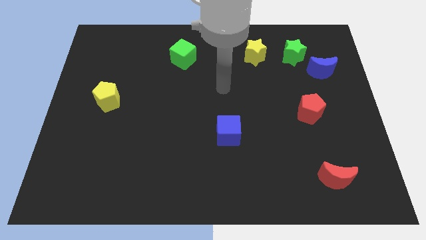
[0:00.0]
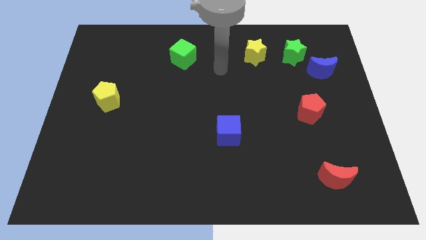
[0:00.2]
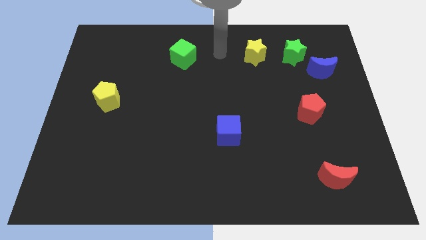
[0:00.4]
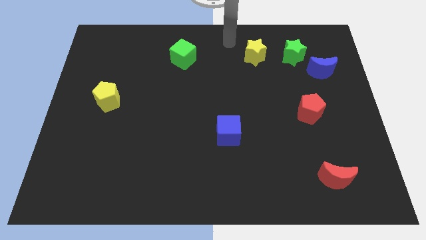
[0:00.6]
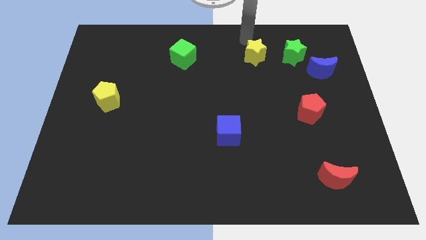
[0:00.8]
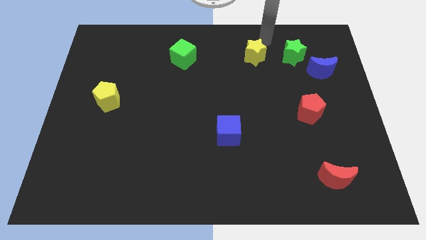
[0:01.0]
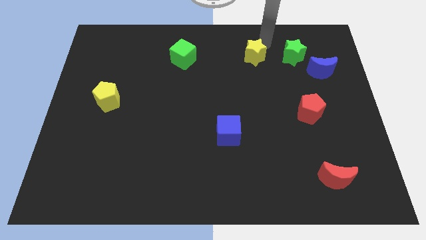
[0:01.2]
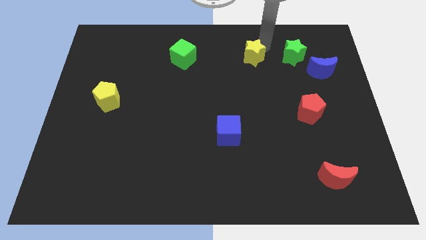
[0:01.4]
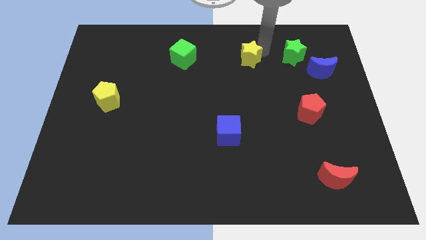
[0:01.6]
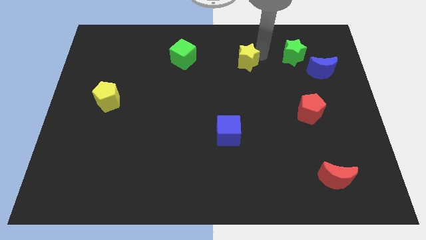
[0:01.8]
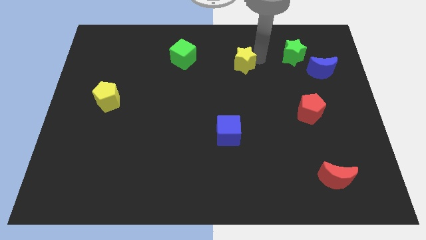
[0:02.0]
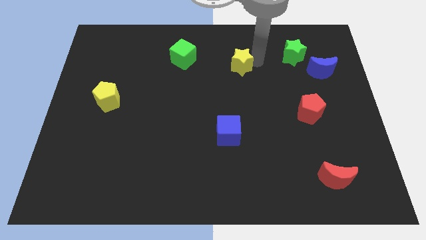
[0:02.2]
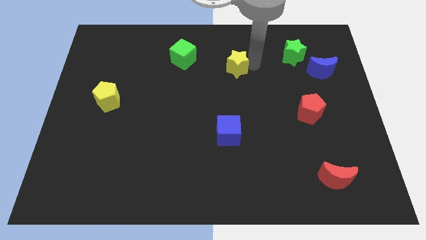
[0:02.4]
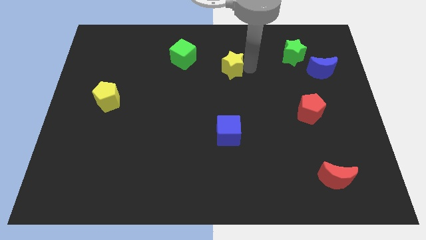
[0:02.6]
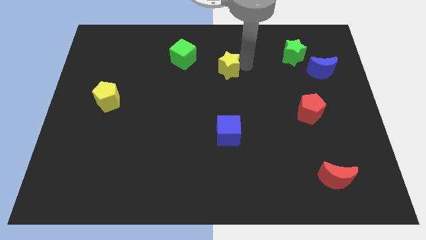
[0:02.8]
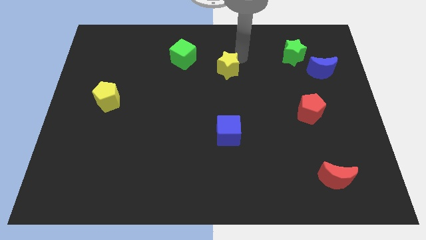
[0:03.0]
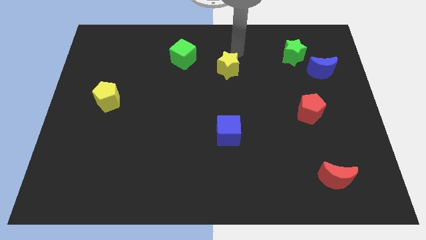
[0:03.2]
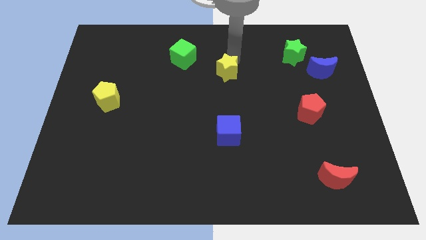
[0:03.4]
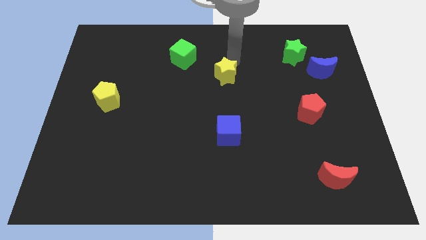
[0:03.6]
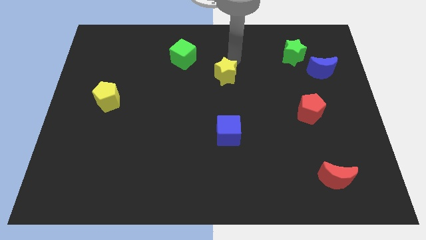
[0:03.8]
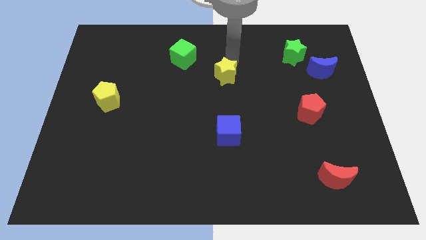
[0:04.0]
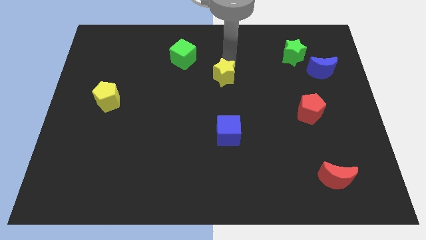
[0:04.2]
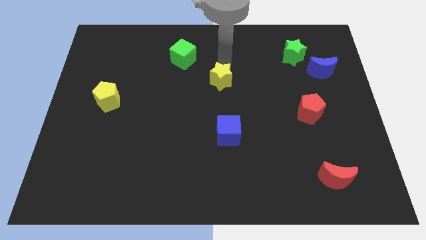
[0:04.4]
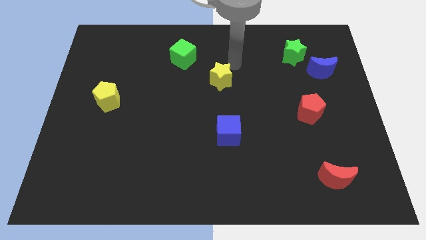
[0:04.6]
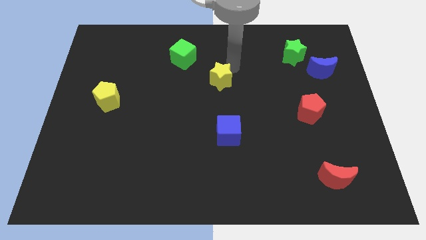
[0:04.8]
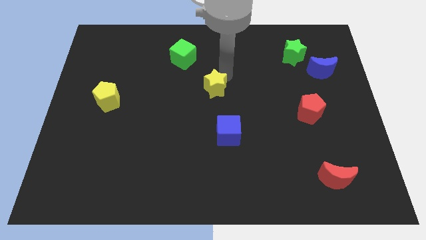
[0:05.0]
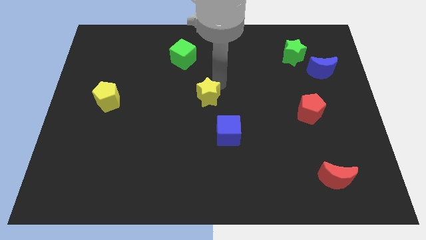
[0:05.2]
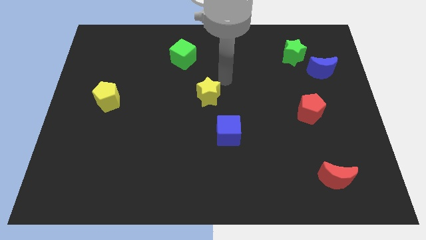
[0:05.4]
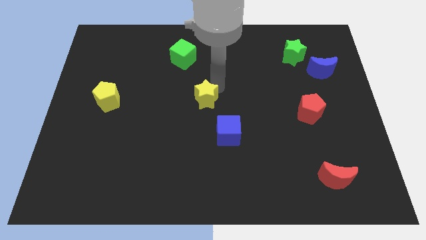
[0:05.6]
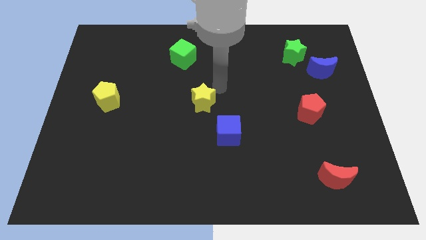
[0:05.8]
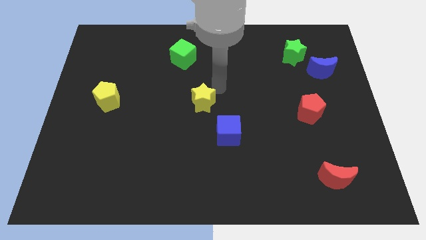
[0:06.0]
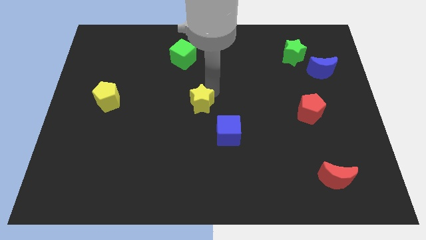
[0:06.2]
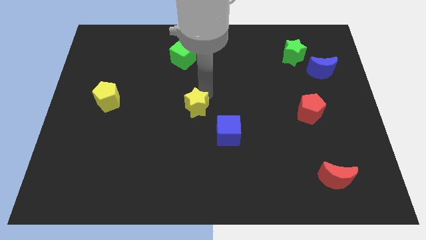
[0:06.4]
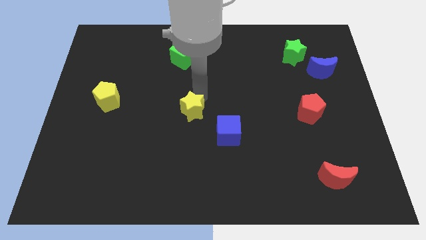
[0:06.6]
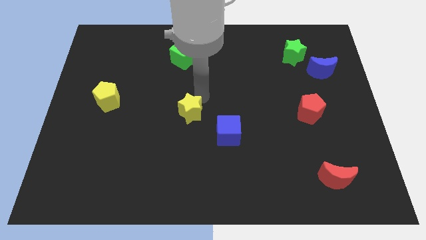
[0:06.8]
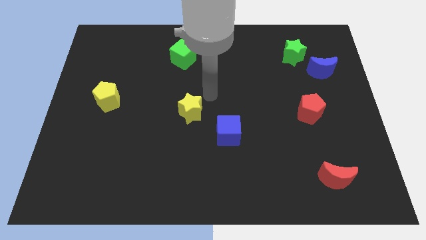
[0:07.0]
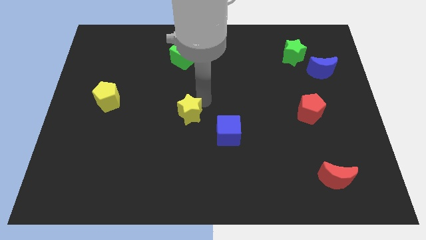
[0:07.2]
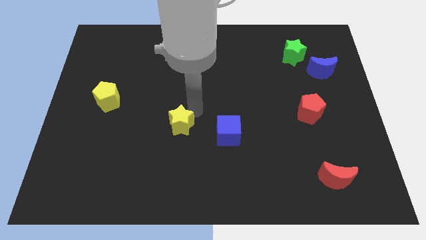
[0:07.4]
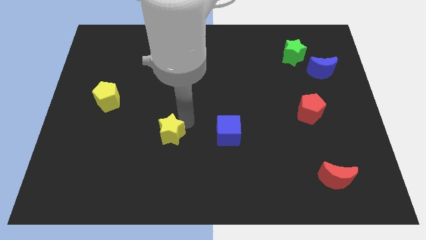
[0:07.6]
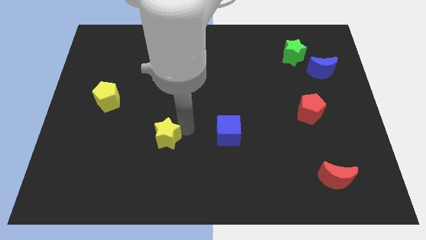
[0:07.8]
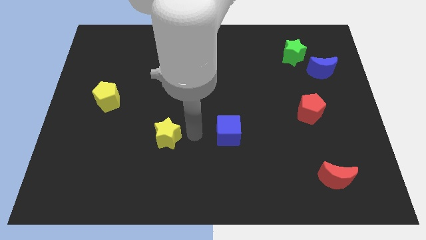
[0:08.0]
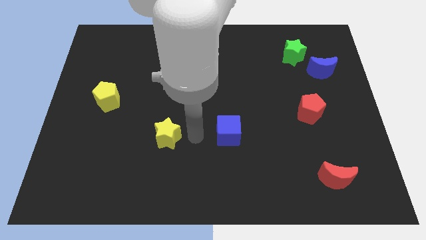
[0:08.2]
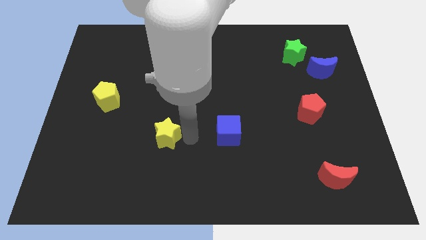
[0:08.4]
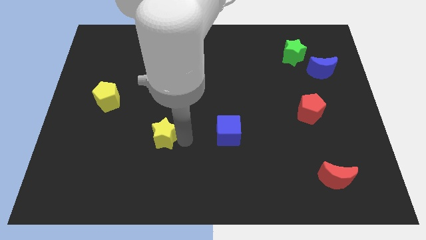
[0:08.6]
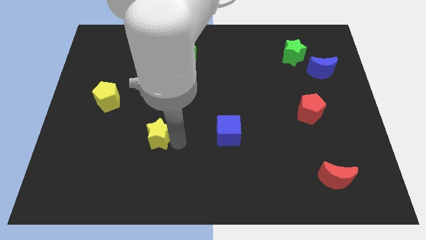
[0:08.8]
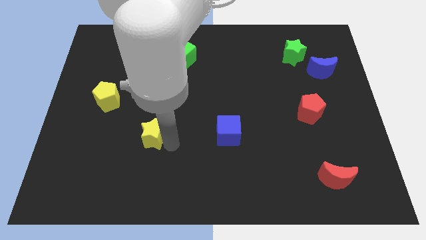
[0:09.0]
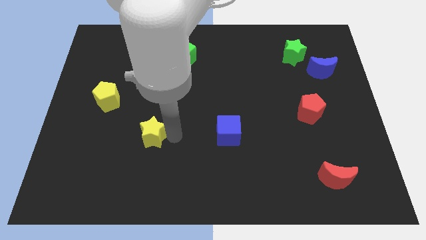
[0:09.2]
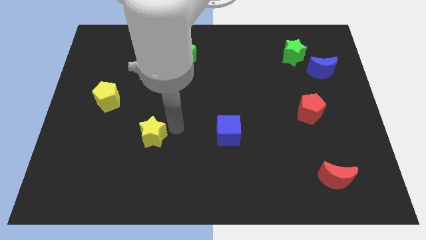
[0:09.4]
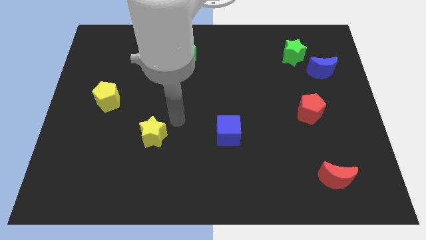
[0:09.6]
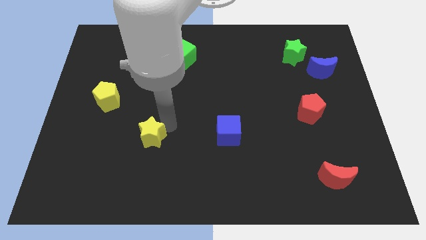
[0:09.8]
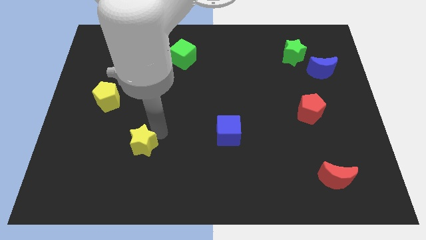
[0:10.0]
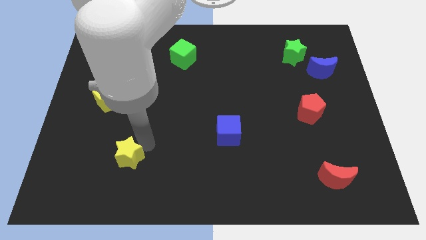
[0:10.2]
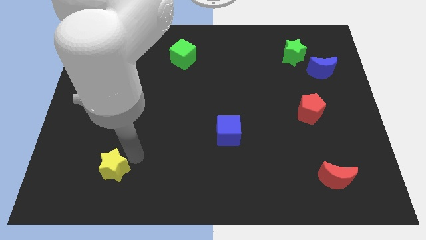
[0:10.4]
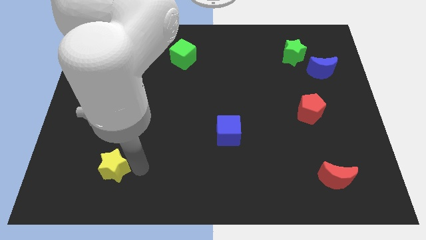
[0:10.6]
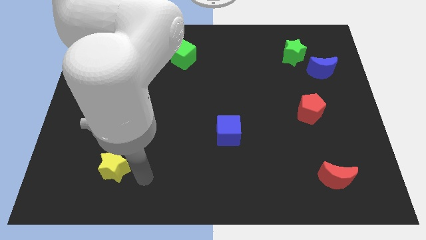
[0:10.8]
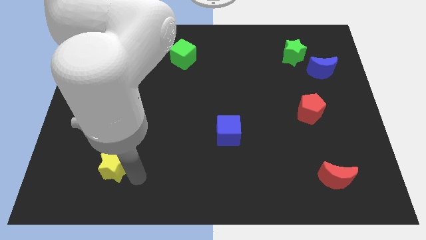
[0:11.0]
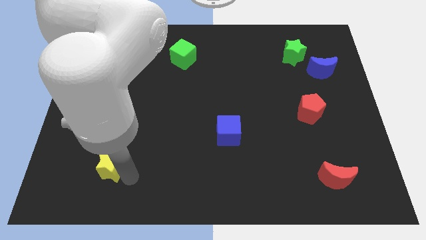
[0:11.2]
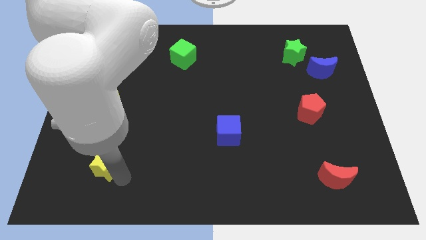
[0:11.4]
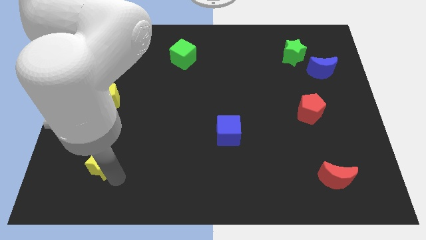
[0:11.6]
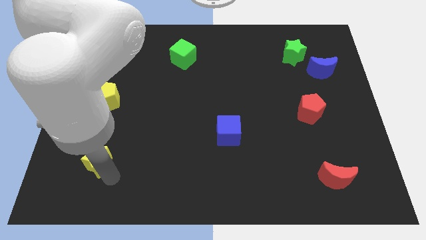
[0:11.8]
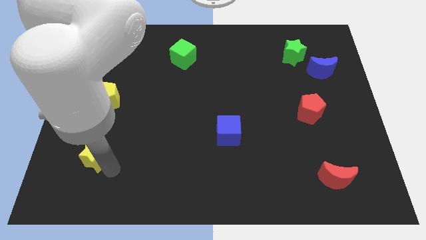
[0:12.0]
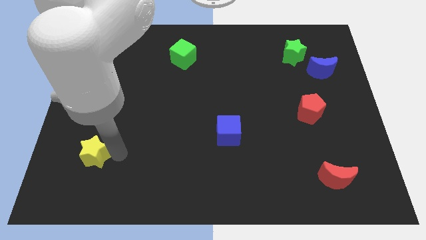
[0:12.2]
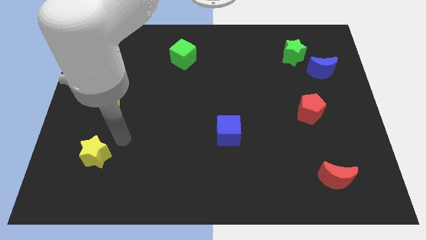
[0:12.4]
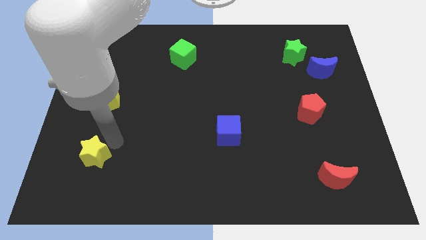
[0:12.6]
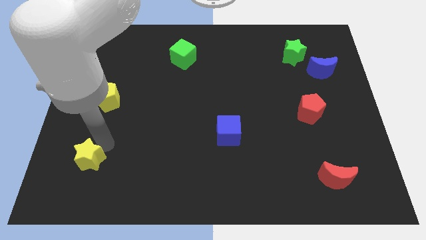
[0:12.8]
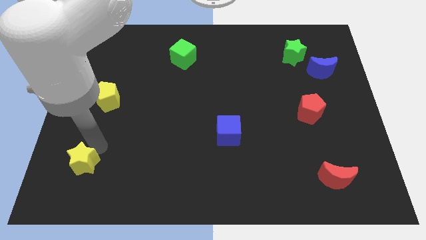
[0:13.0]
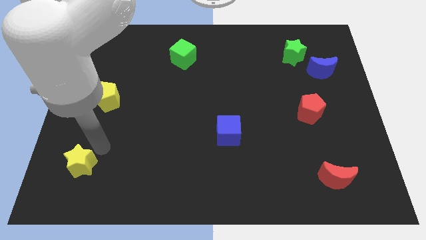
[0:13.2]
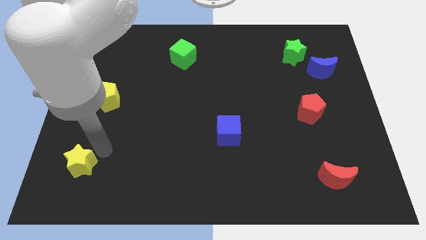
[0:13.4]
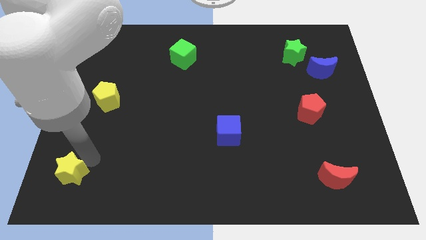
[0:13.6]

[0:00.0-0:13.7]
move the yellow star to the bottom left corner
